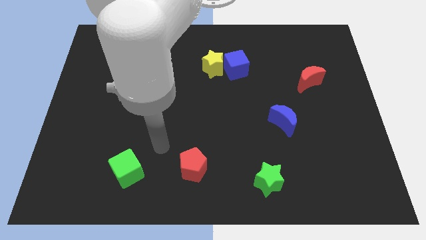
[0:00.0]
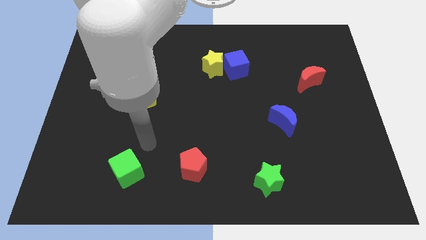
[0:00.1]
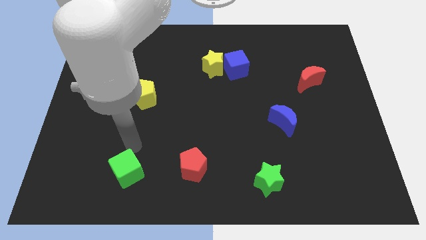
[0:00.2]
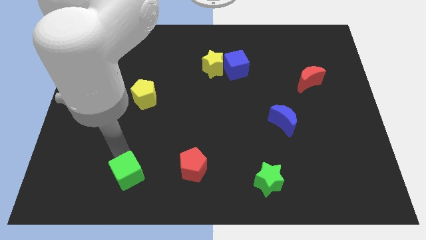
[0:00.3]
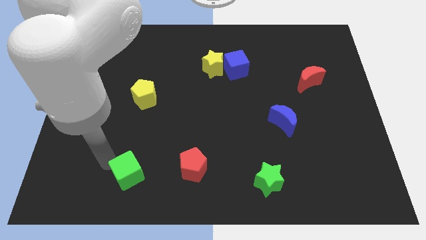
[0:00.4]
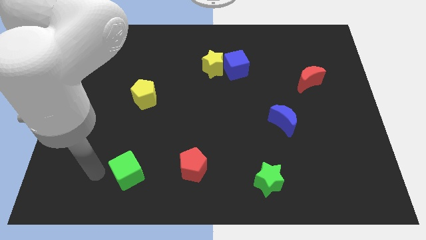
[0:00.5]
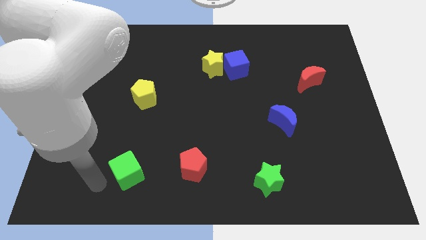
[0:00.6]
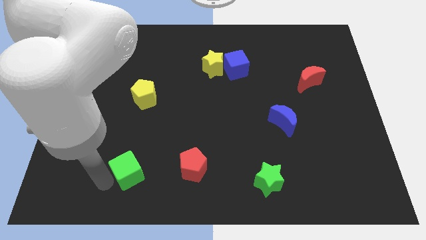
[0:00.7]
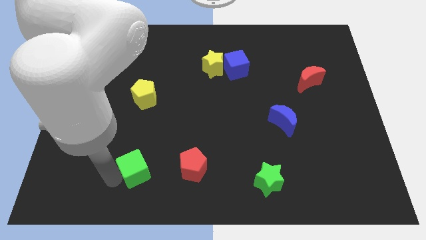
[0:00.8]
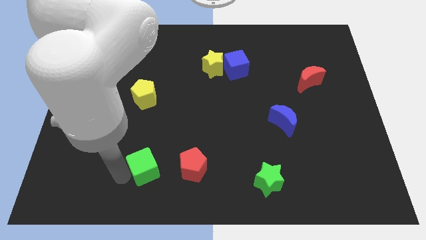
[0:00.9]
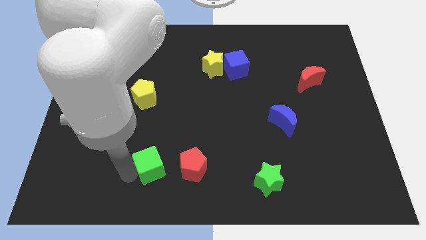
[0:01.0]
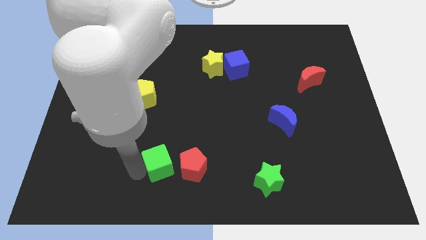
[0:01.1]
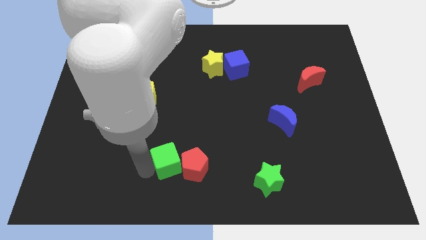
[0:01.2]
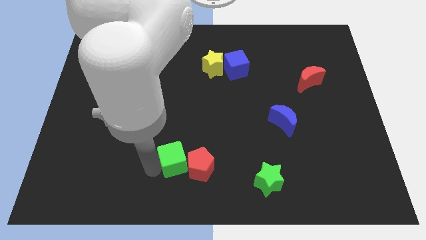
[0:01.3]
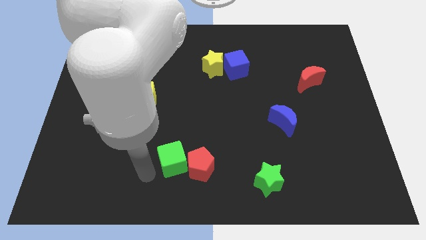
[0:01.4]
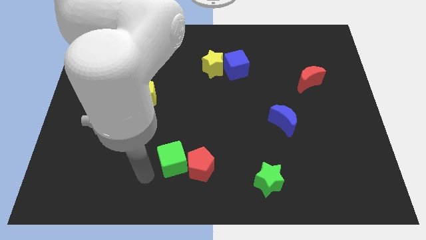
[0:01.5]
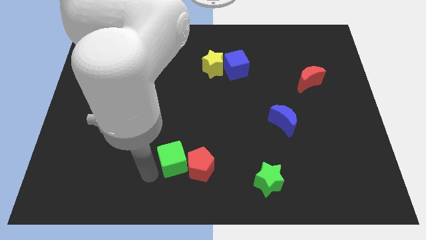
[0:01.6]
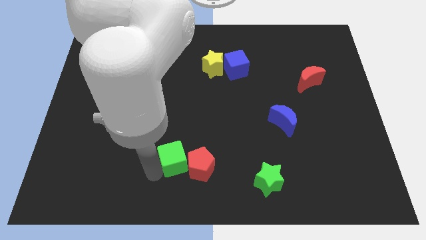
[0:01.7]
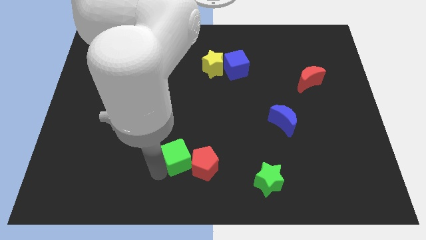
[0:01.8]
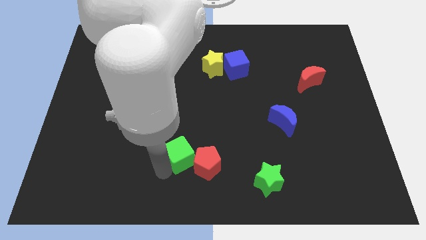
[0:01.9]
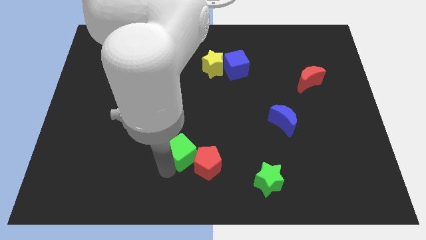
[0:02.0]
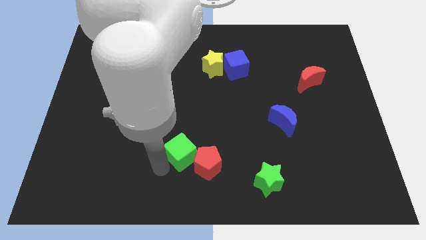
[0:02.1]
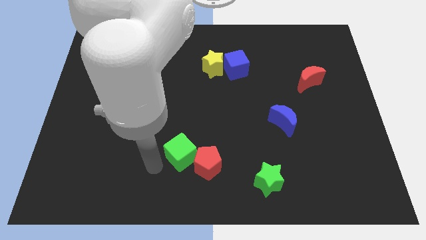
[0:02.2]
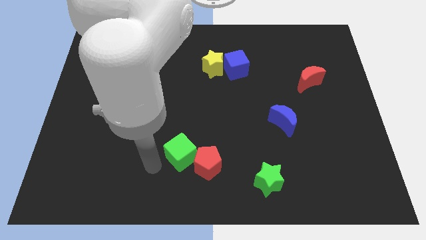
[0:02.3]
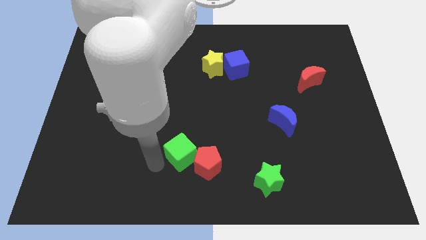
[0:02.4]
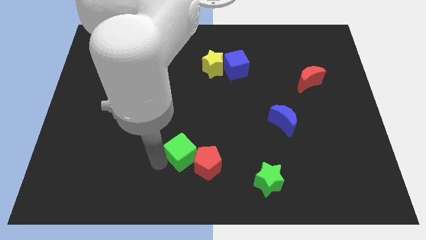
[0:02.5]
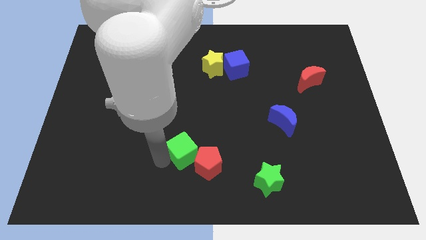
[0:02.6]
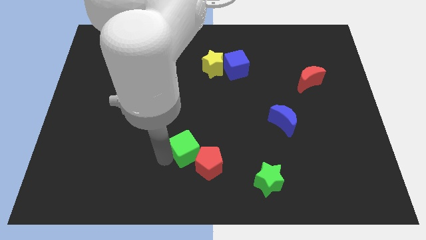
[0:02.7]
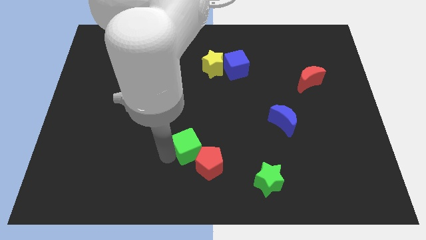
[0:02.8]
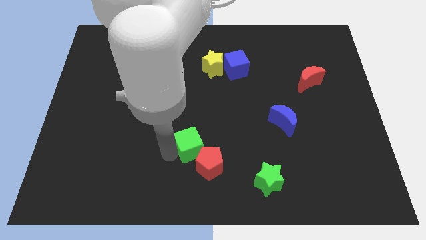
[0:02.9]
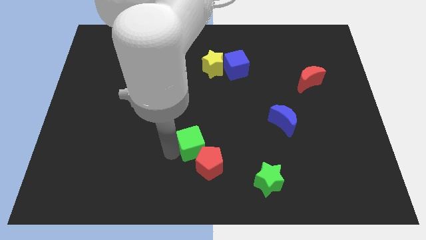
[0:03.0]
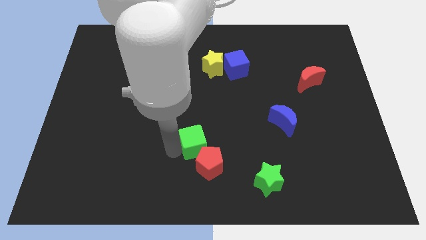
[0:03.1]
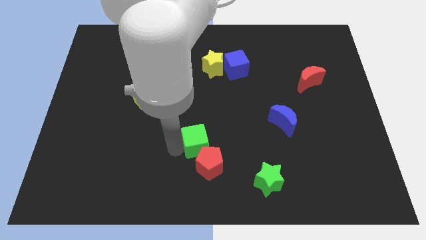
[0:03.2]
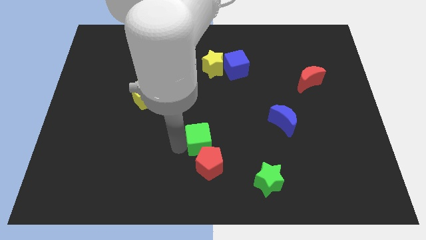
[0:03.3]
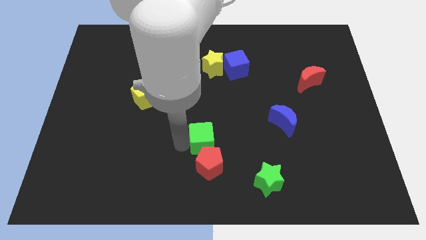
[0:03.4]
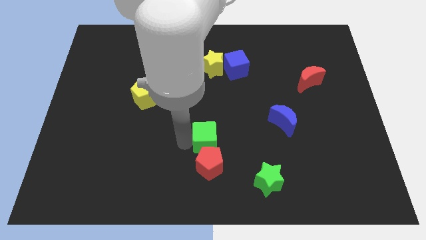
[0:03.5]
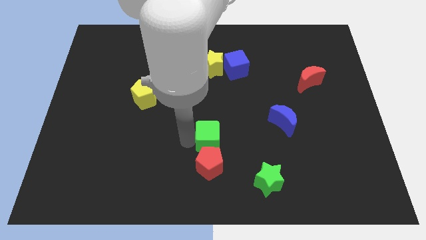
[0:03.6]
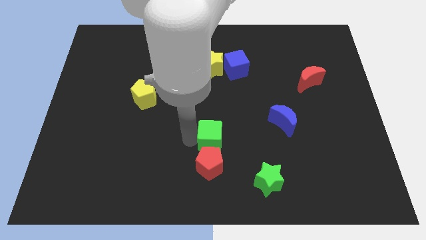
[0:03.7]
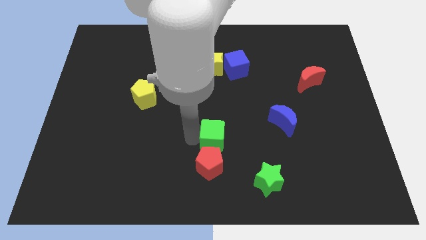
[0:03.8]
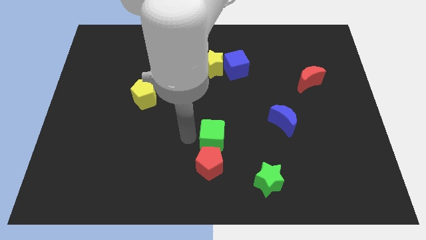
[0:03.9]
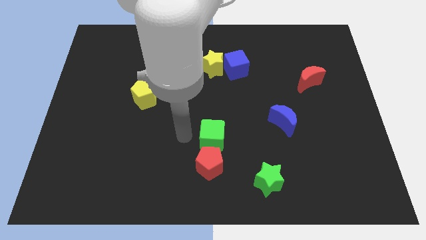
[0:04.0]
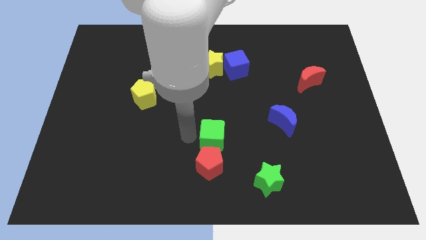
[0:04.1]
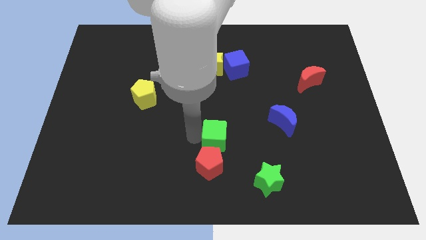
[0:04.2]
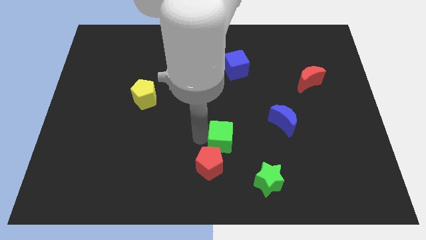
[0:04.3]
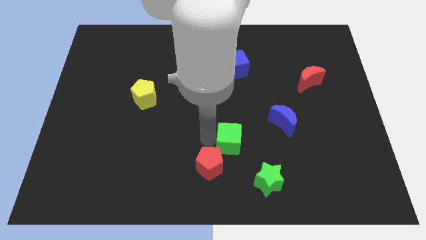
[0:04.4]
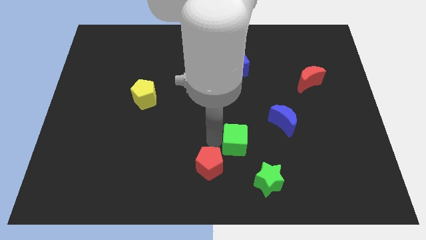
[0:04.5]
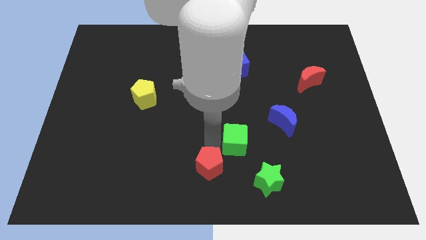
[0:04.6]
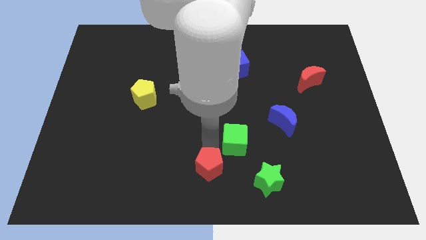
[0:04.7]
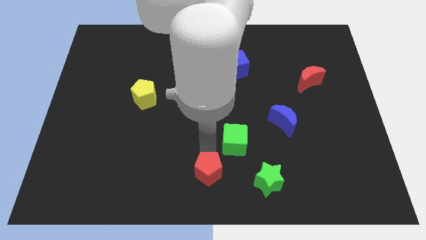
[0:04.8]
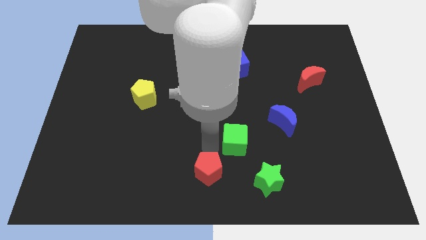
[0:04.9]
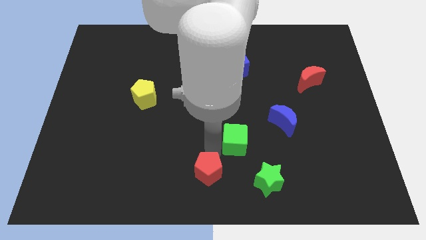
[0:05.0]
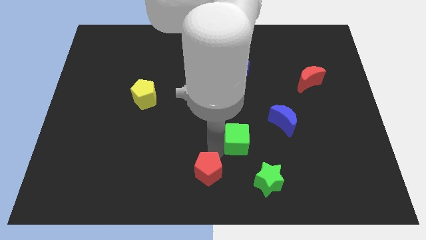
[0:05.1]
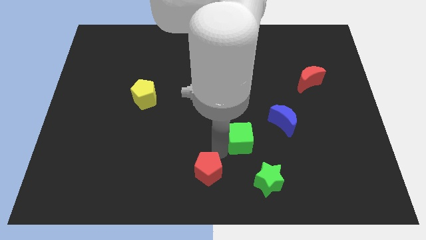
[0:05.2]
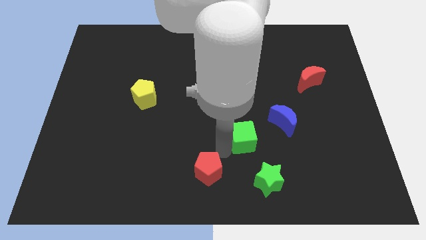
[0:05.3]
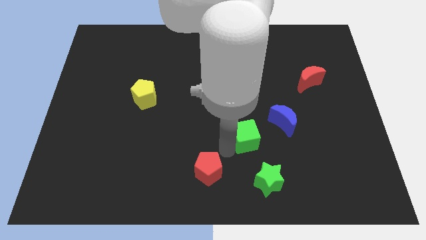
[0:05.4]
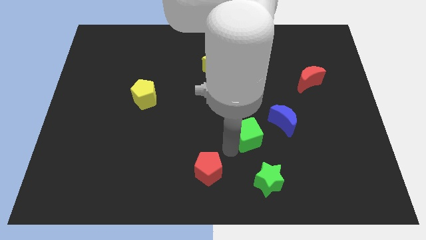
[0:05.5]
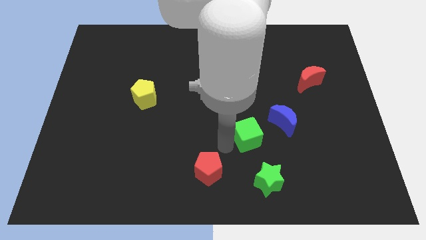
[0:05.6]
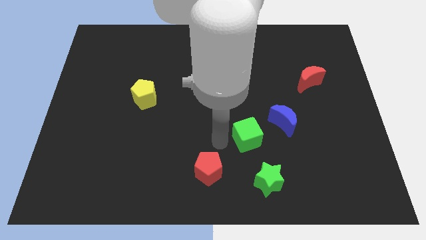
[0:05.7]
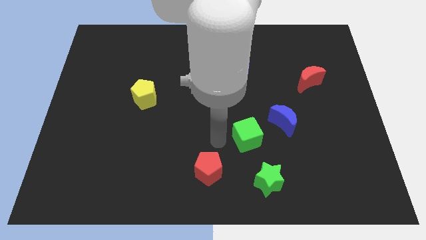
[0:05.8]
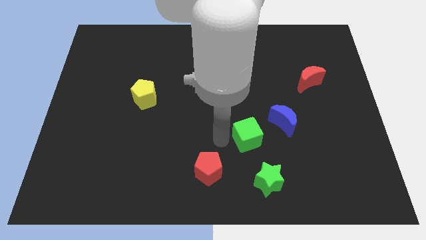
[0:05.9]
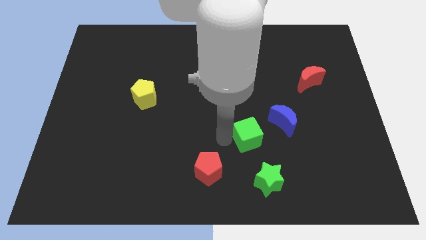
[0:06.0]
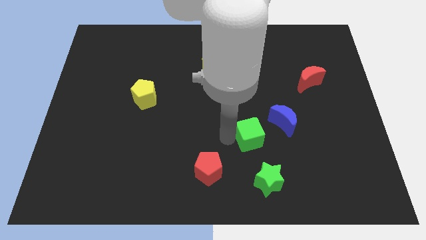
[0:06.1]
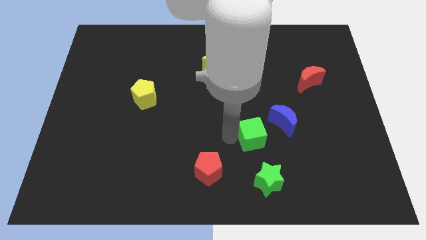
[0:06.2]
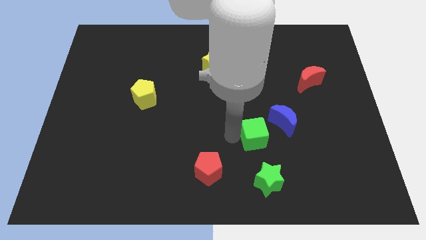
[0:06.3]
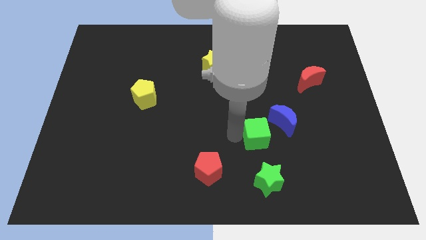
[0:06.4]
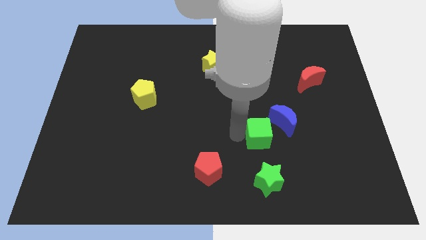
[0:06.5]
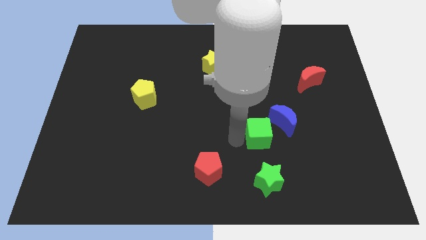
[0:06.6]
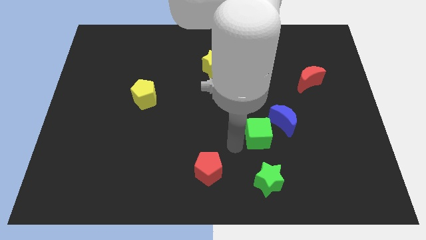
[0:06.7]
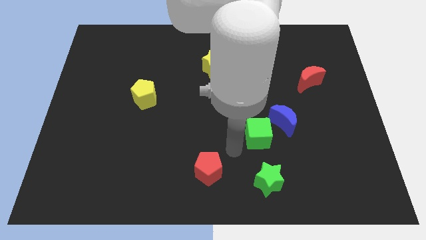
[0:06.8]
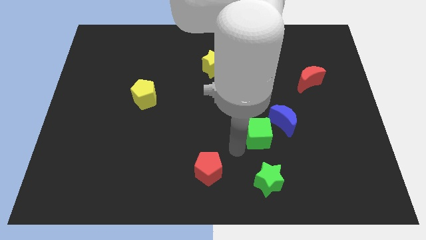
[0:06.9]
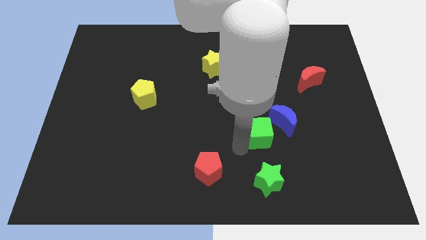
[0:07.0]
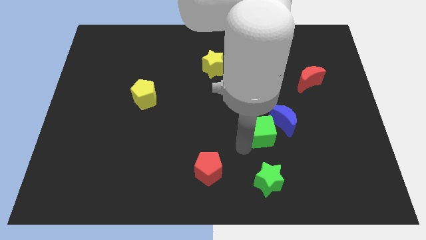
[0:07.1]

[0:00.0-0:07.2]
push the green cube next to the blue moon
